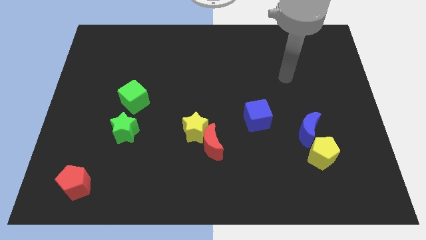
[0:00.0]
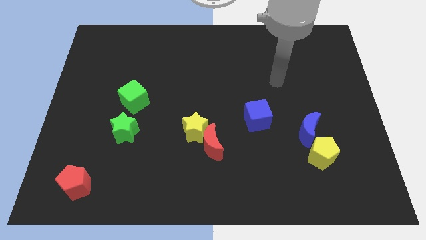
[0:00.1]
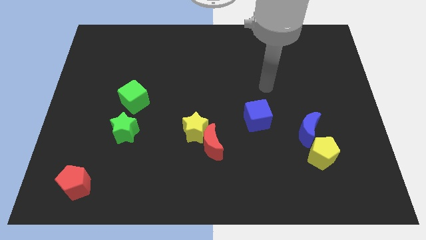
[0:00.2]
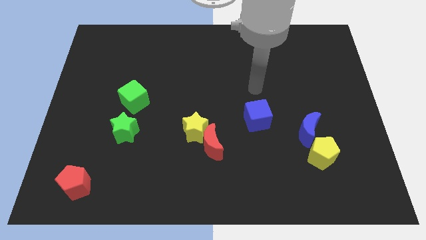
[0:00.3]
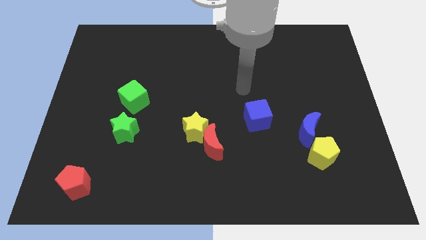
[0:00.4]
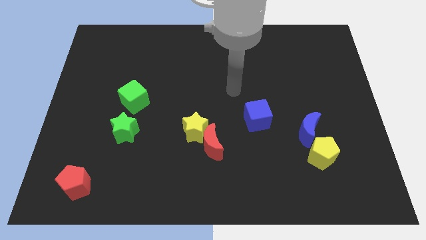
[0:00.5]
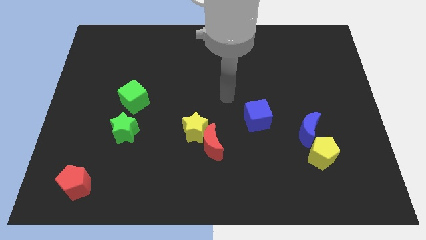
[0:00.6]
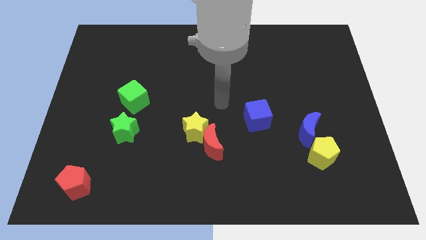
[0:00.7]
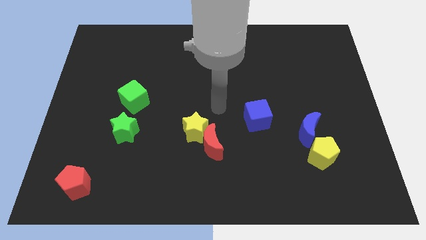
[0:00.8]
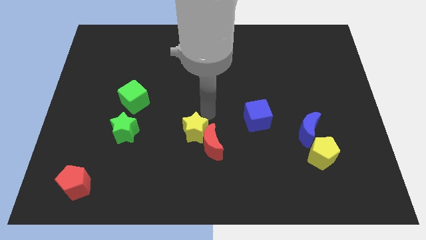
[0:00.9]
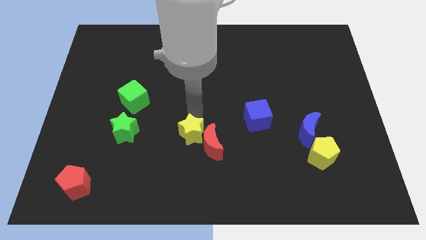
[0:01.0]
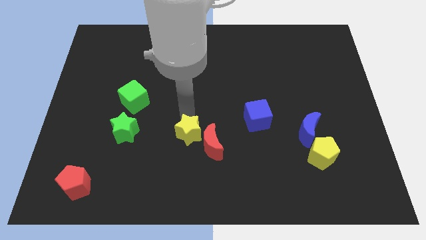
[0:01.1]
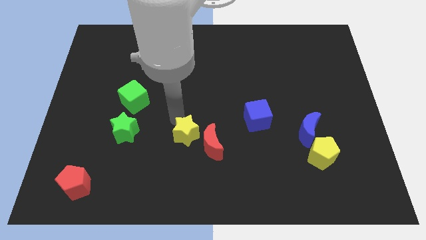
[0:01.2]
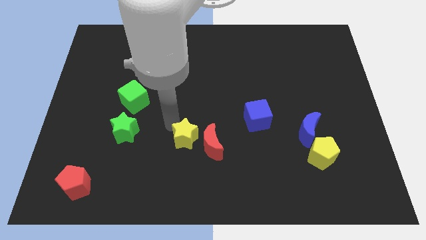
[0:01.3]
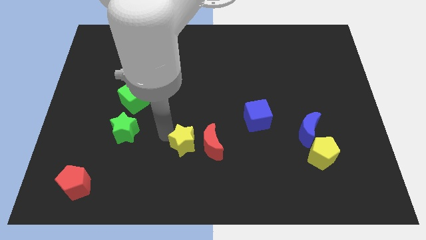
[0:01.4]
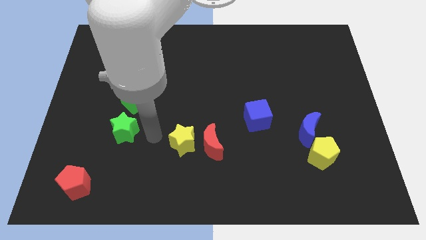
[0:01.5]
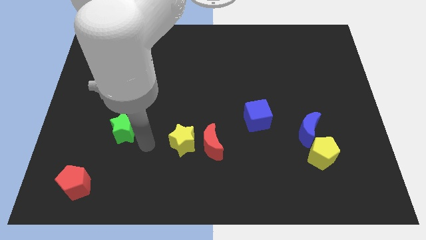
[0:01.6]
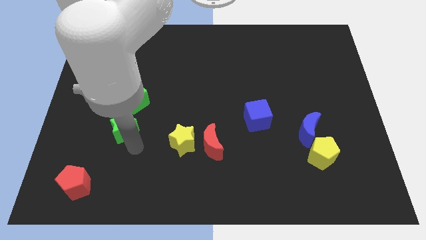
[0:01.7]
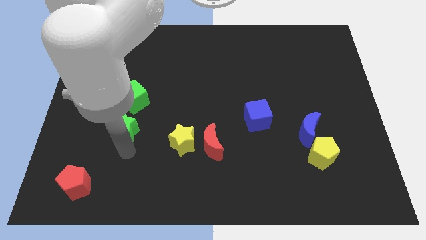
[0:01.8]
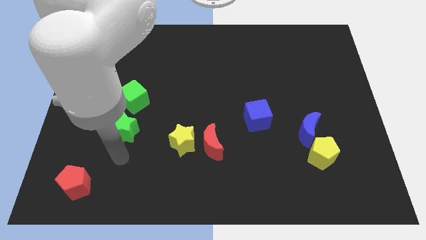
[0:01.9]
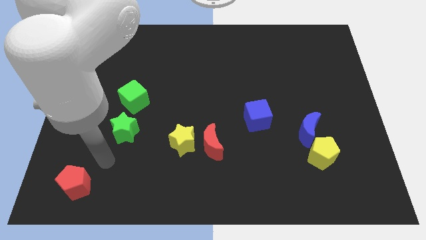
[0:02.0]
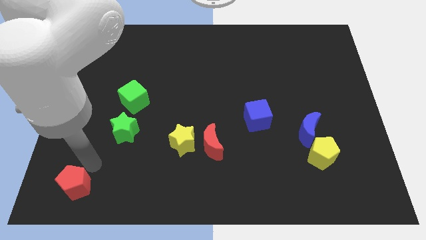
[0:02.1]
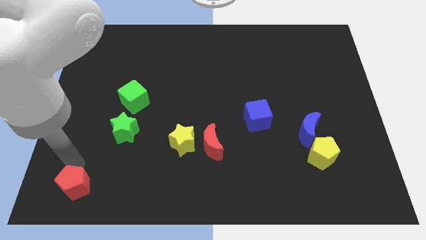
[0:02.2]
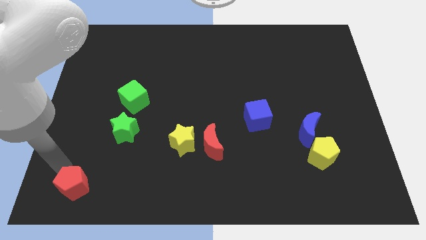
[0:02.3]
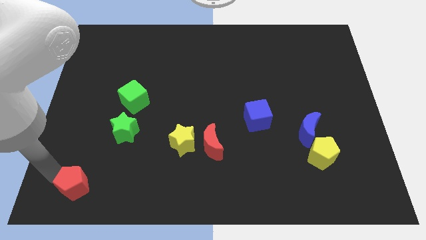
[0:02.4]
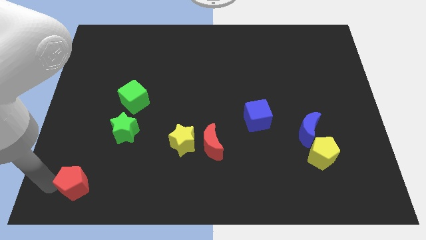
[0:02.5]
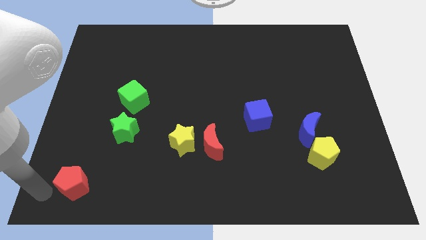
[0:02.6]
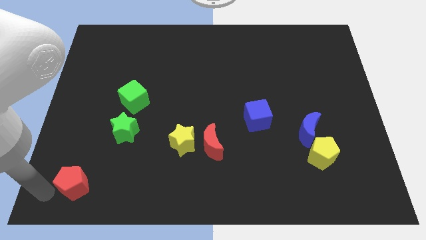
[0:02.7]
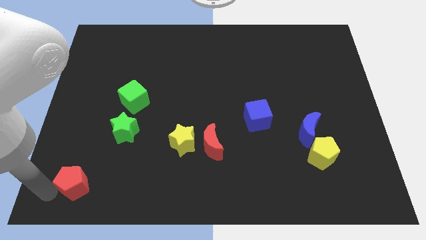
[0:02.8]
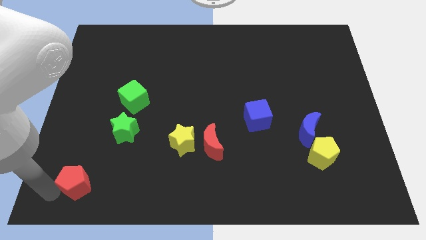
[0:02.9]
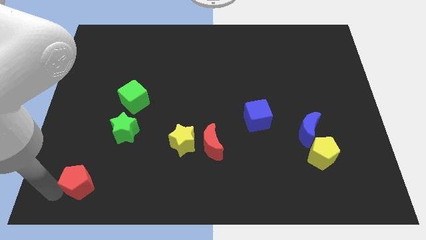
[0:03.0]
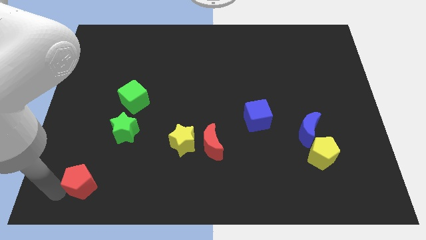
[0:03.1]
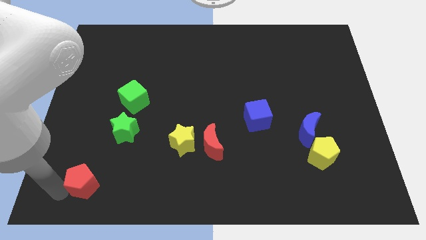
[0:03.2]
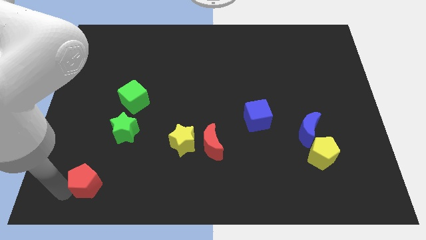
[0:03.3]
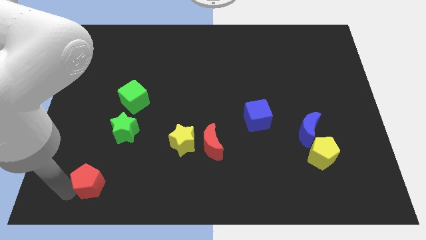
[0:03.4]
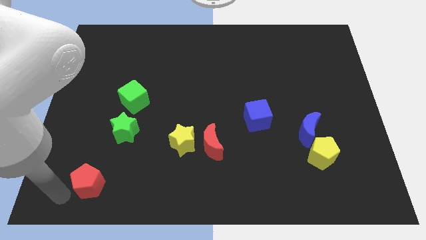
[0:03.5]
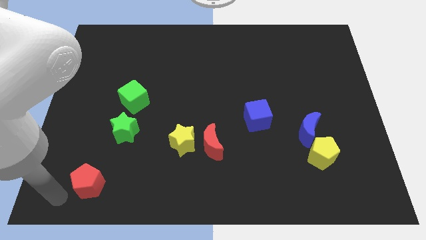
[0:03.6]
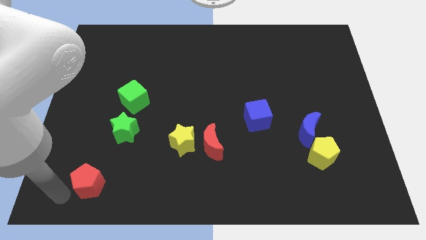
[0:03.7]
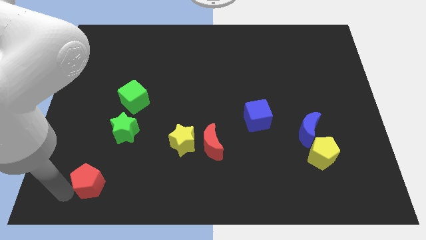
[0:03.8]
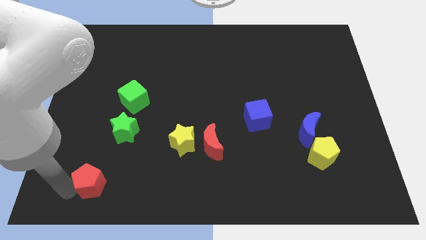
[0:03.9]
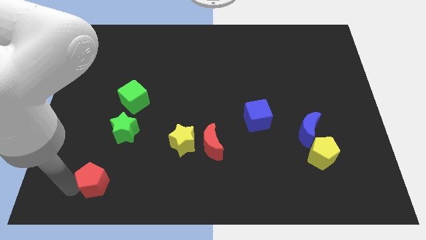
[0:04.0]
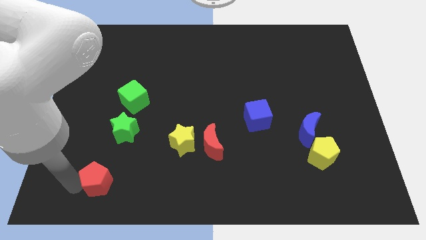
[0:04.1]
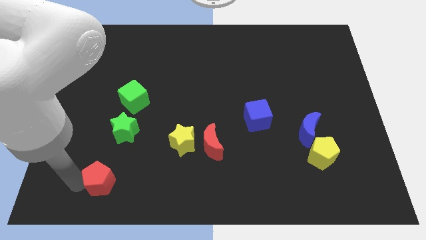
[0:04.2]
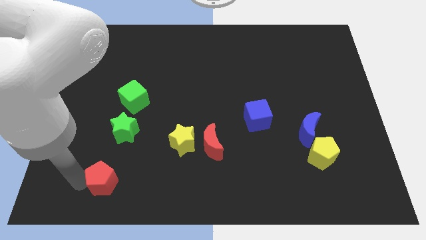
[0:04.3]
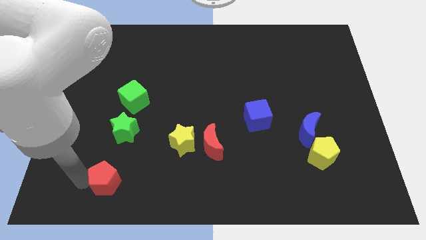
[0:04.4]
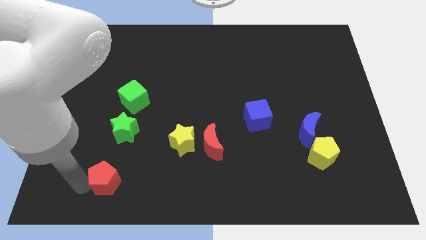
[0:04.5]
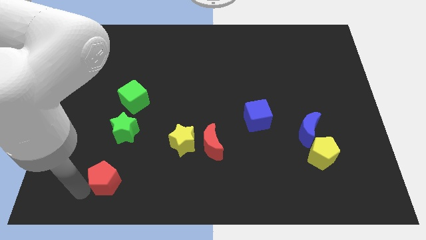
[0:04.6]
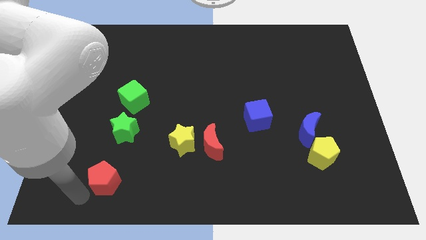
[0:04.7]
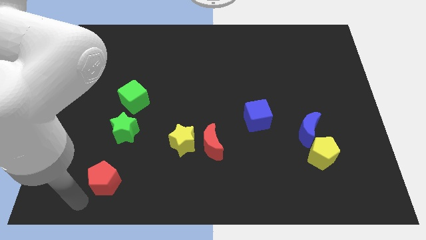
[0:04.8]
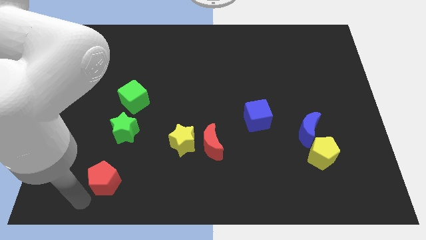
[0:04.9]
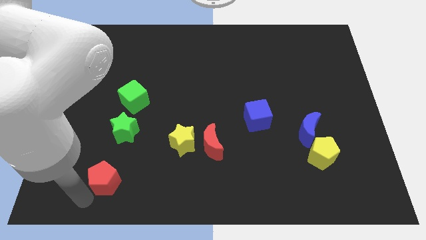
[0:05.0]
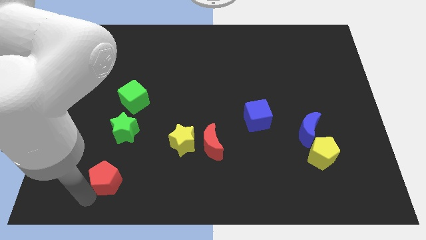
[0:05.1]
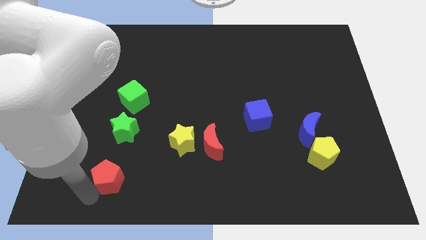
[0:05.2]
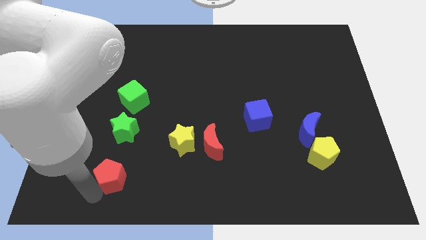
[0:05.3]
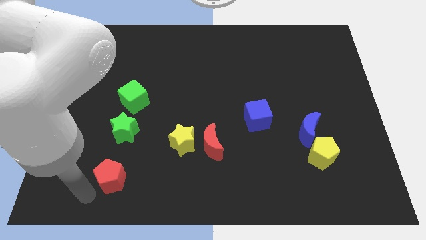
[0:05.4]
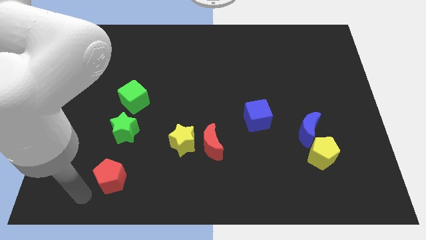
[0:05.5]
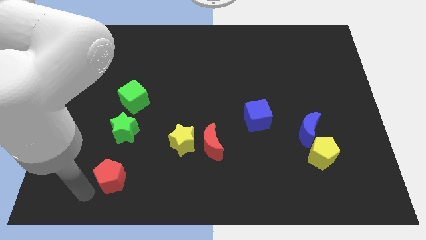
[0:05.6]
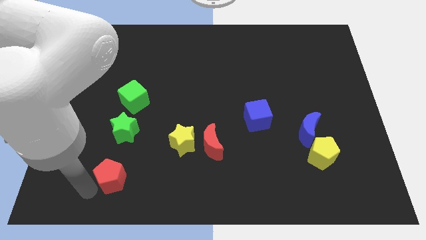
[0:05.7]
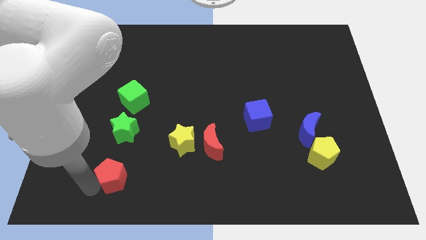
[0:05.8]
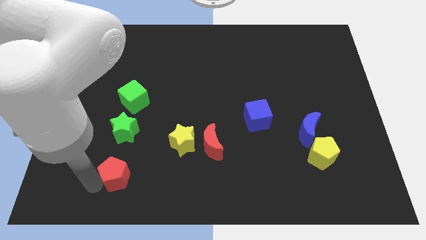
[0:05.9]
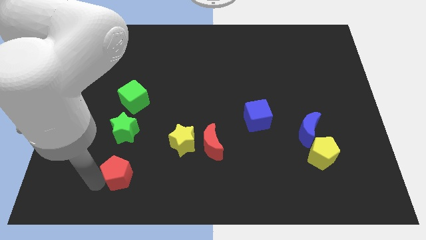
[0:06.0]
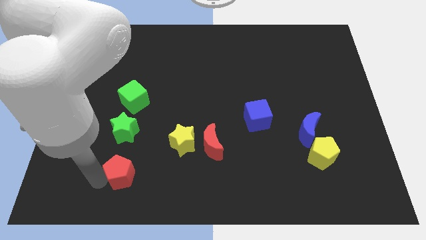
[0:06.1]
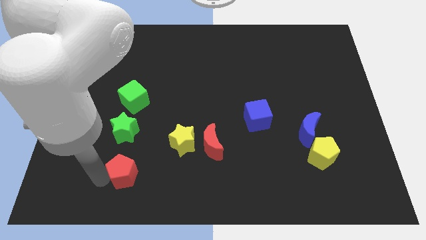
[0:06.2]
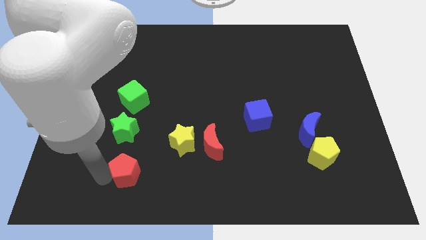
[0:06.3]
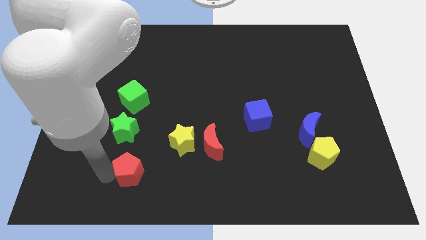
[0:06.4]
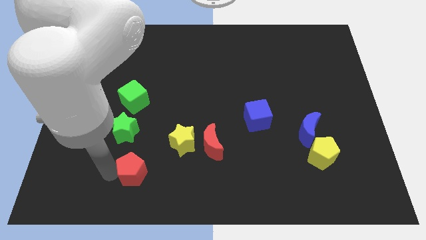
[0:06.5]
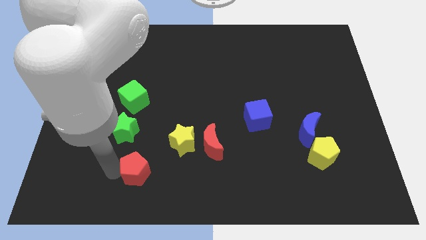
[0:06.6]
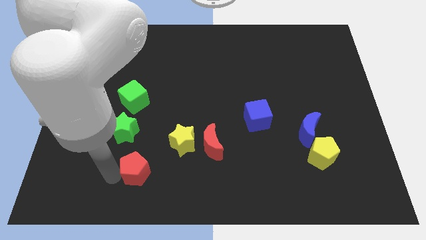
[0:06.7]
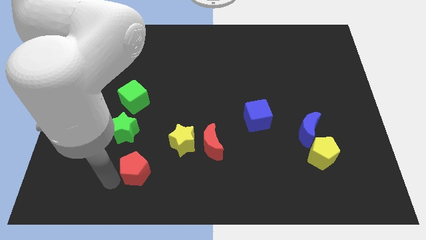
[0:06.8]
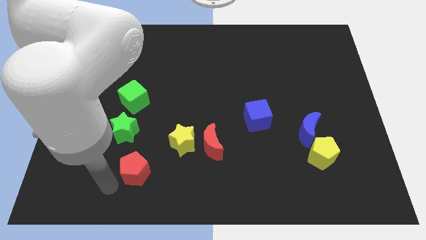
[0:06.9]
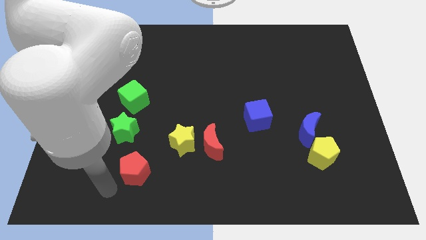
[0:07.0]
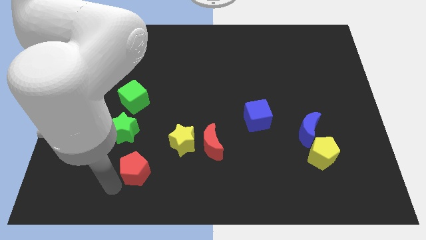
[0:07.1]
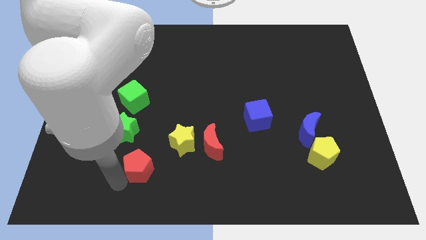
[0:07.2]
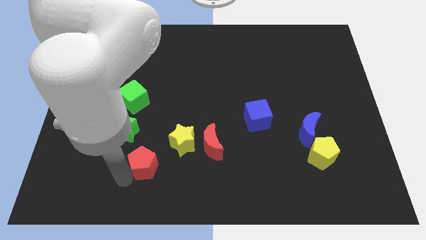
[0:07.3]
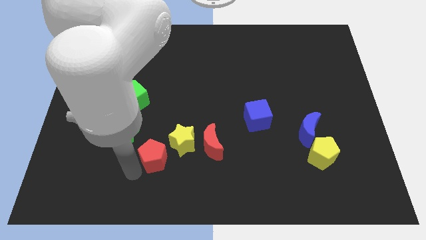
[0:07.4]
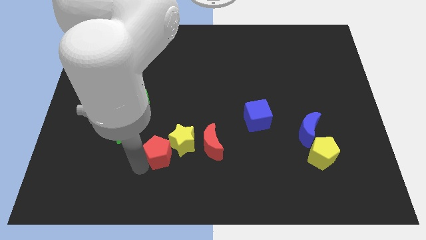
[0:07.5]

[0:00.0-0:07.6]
put the red pentagon towards the yellow star
